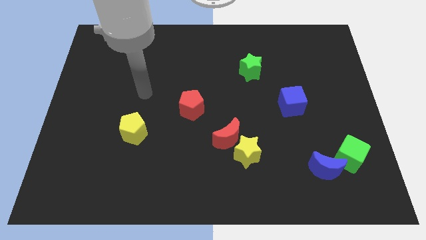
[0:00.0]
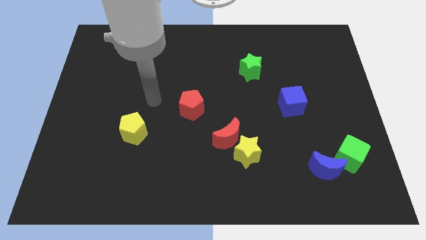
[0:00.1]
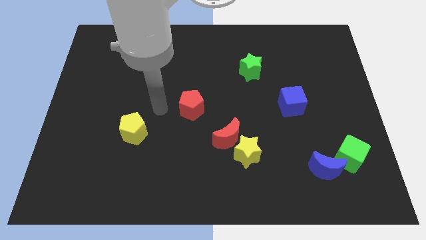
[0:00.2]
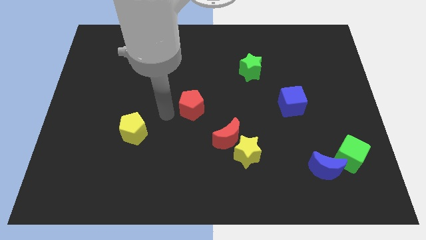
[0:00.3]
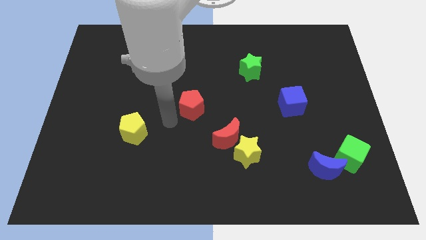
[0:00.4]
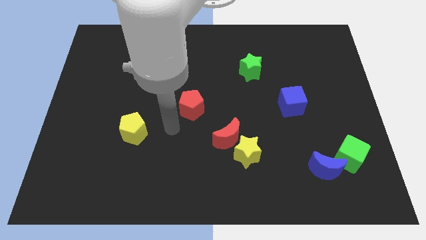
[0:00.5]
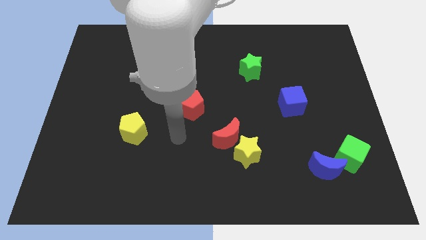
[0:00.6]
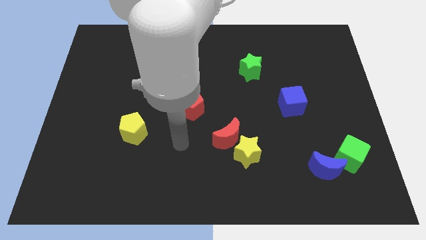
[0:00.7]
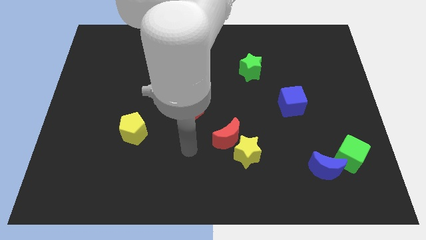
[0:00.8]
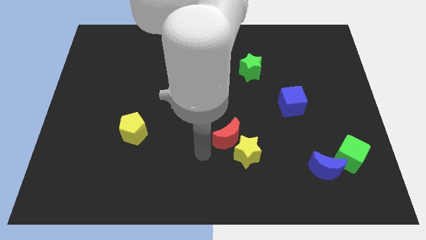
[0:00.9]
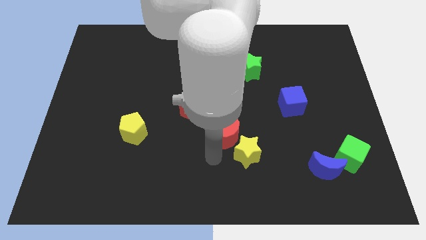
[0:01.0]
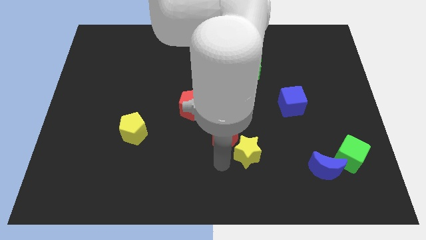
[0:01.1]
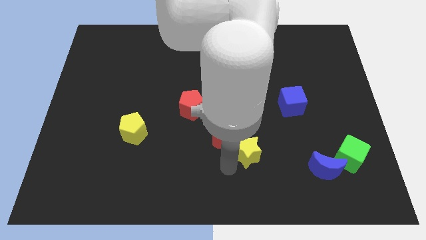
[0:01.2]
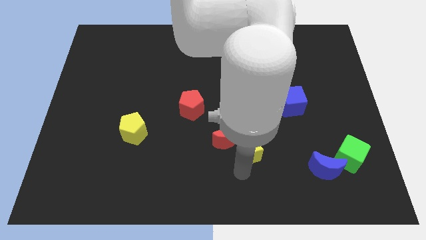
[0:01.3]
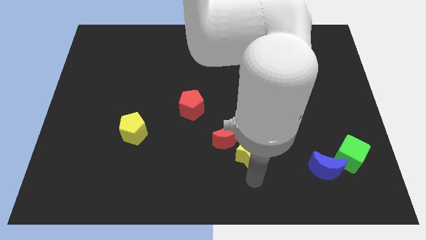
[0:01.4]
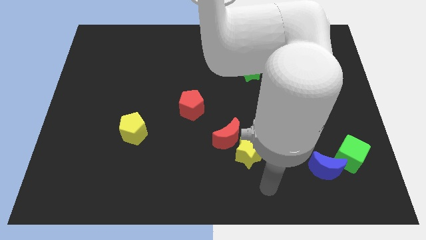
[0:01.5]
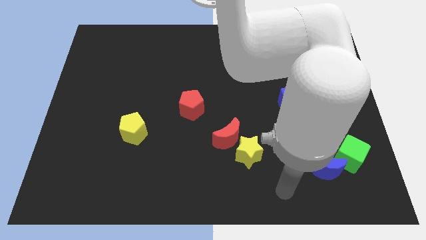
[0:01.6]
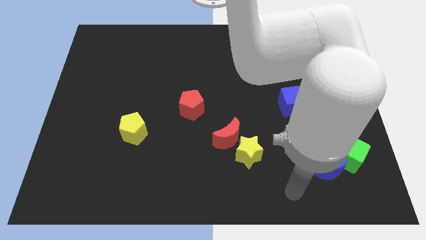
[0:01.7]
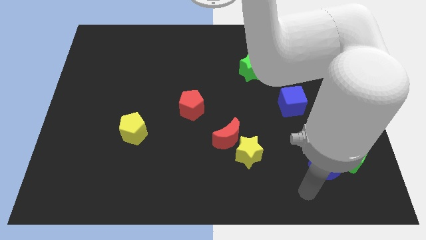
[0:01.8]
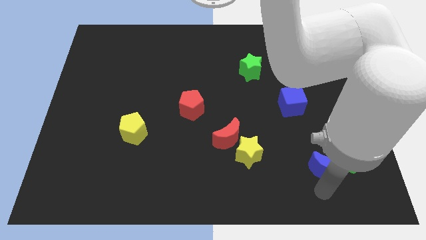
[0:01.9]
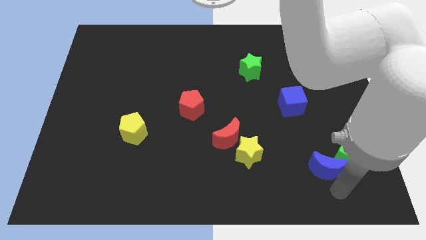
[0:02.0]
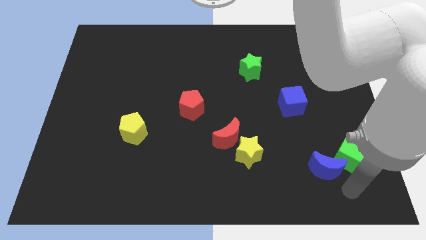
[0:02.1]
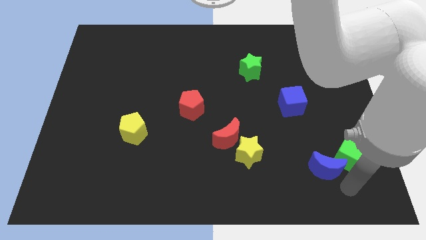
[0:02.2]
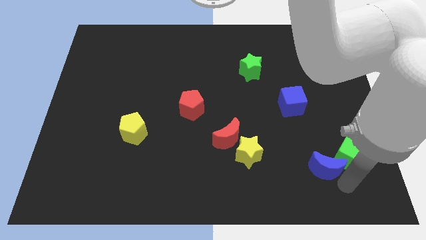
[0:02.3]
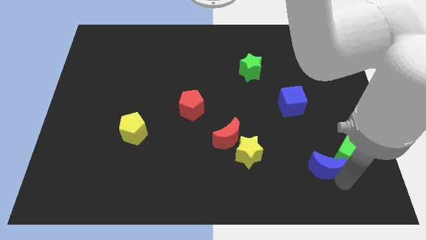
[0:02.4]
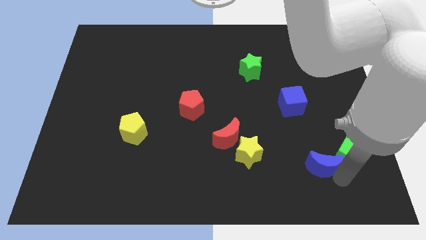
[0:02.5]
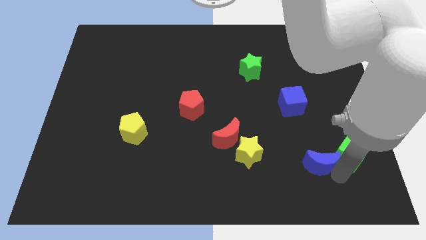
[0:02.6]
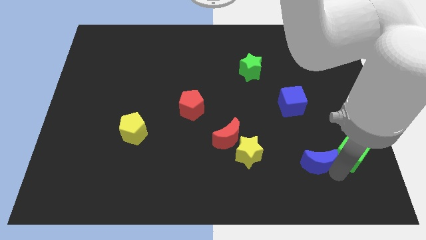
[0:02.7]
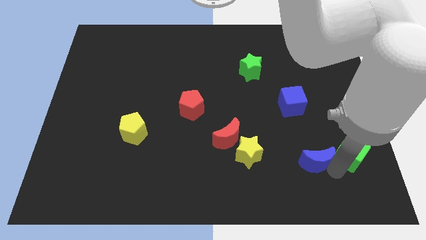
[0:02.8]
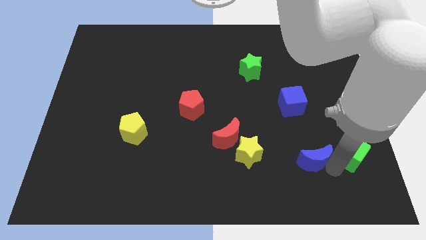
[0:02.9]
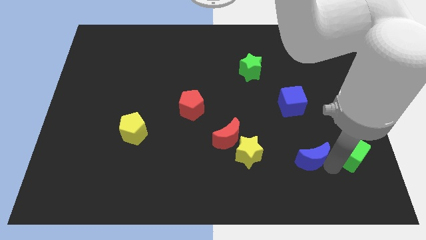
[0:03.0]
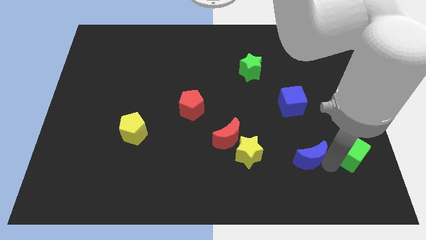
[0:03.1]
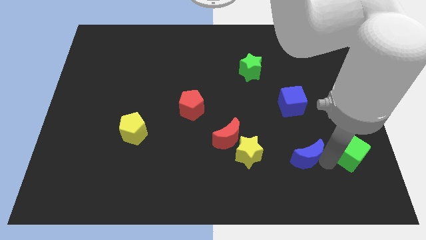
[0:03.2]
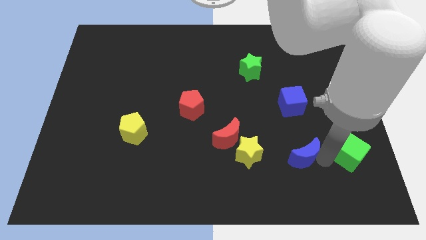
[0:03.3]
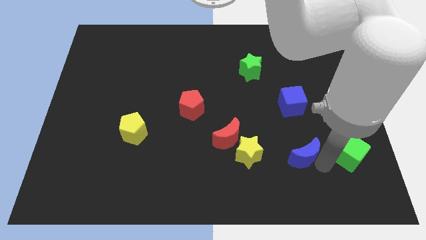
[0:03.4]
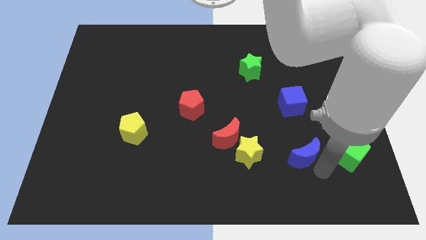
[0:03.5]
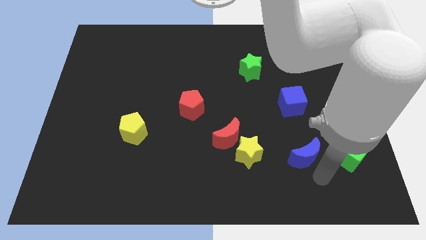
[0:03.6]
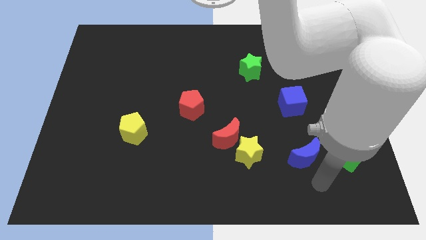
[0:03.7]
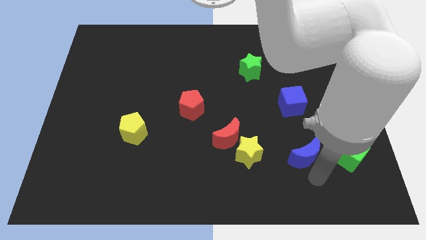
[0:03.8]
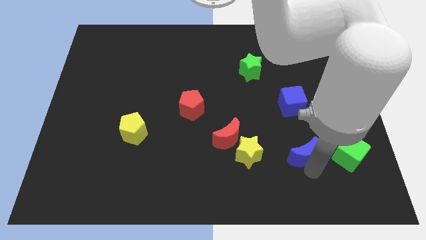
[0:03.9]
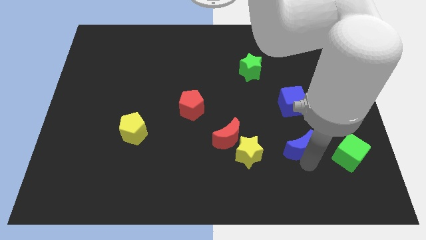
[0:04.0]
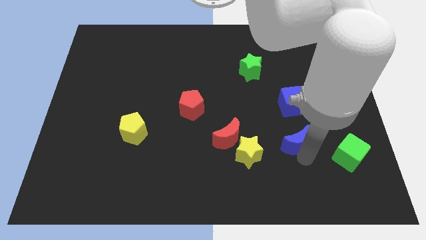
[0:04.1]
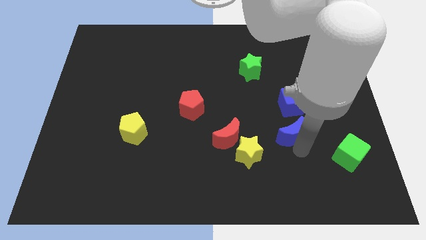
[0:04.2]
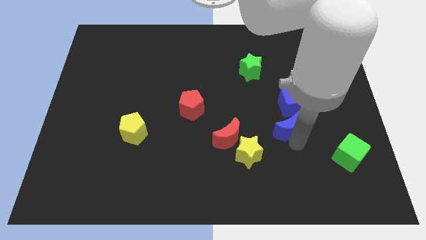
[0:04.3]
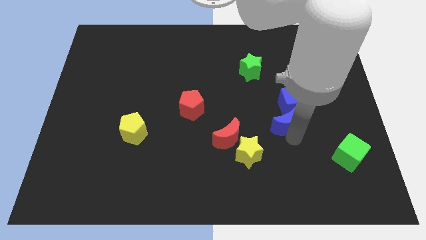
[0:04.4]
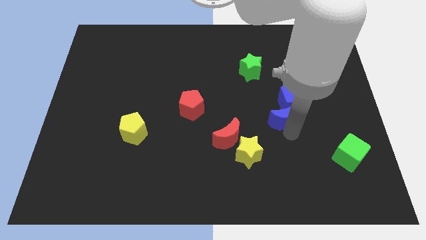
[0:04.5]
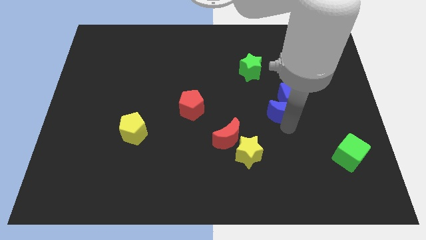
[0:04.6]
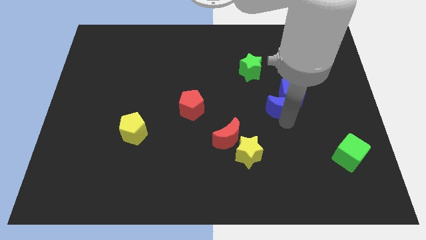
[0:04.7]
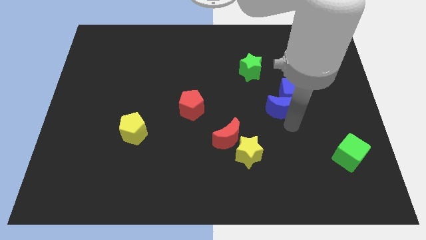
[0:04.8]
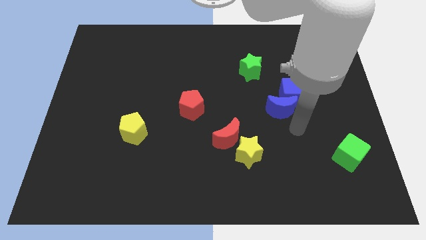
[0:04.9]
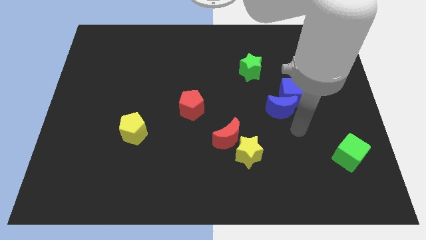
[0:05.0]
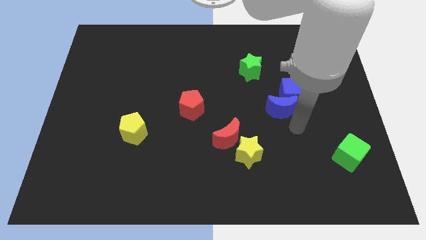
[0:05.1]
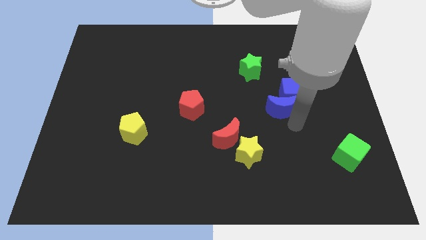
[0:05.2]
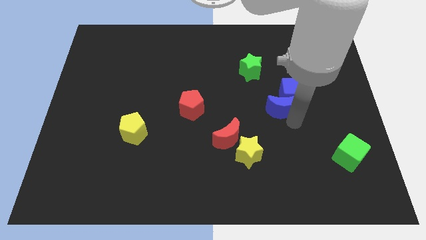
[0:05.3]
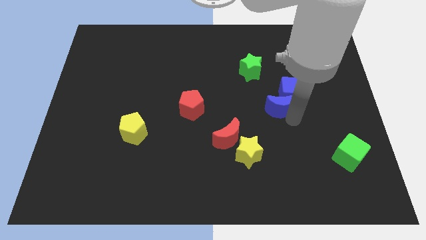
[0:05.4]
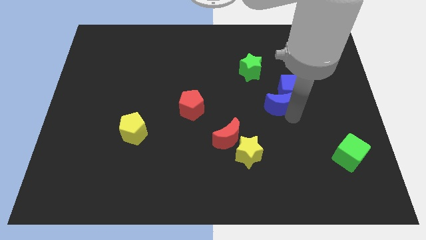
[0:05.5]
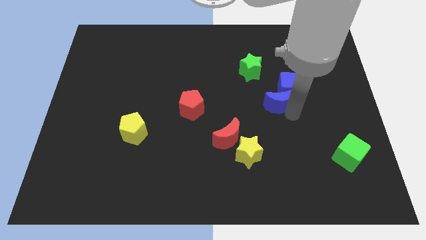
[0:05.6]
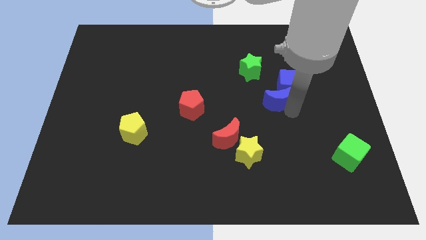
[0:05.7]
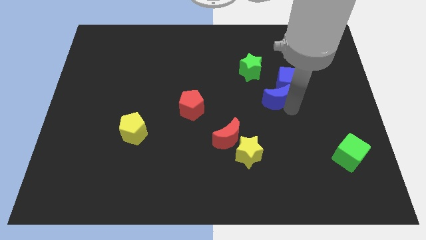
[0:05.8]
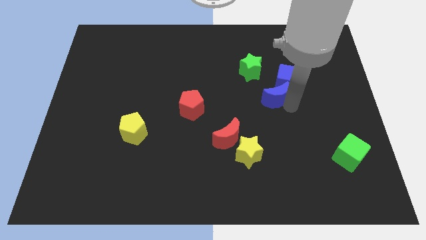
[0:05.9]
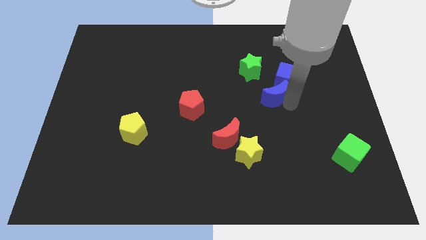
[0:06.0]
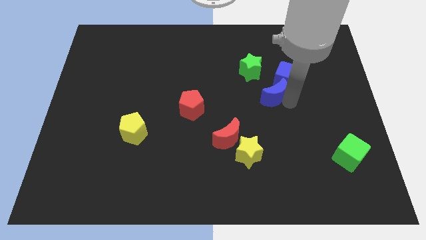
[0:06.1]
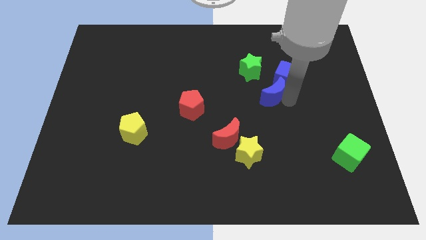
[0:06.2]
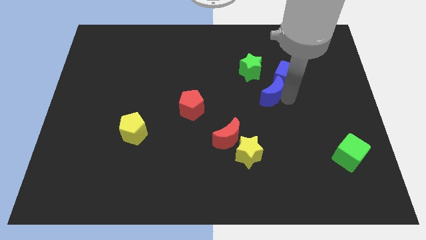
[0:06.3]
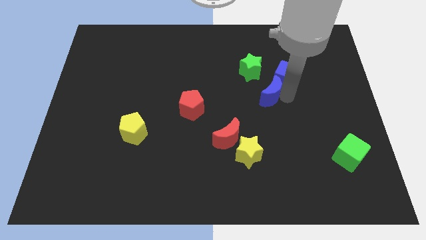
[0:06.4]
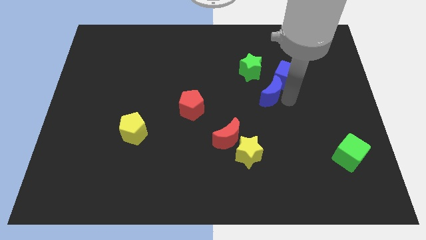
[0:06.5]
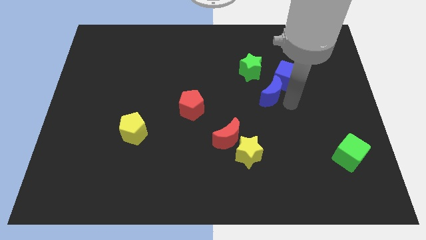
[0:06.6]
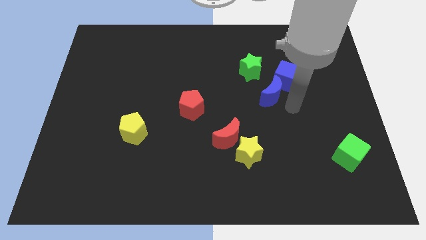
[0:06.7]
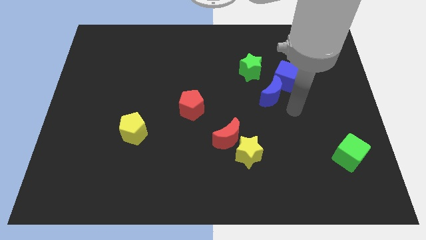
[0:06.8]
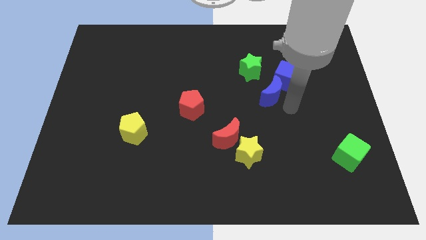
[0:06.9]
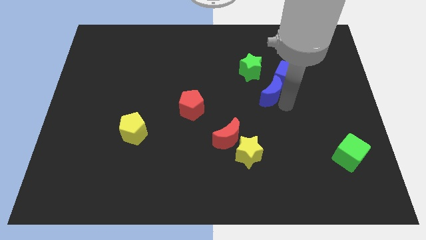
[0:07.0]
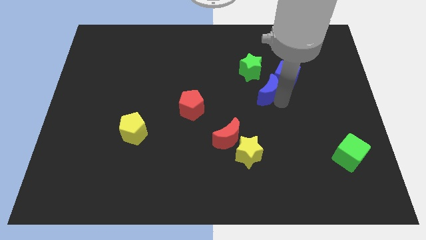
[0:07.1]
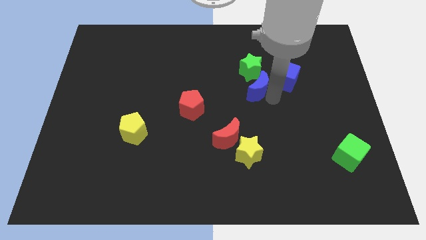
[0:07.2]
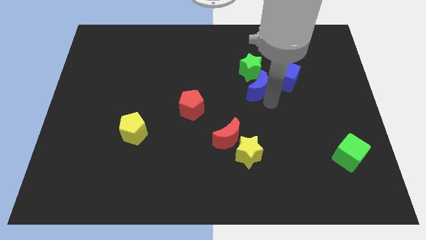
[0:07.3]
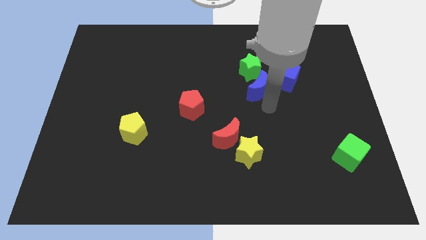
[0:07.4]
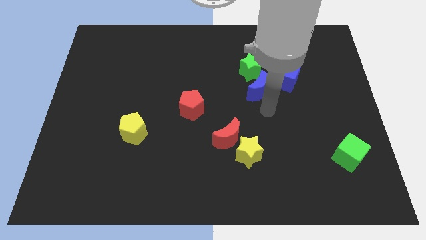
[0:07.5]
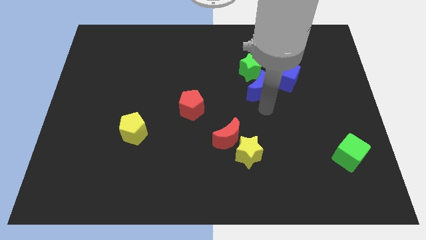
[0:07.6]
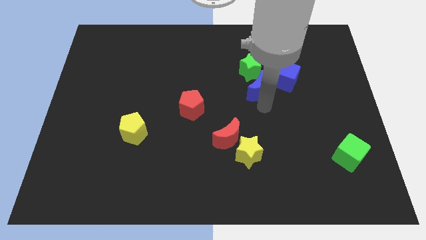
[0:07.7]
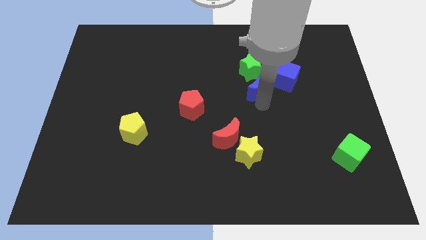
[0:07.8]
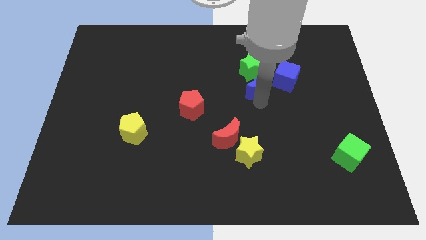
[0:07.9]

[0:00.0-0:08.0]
push the blue moon to the green star
